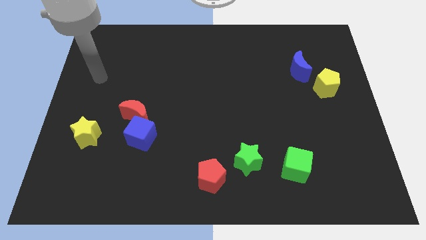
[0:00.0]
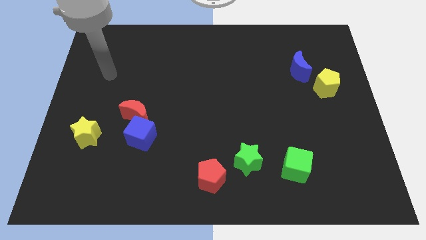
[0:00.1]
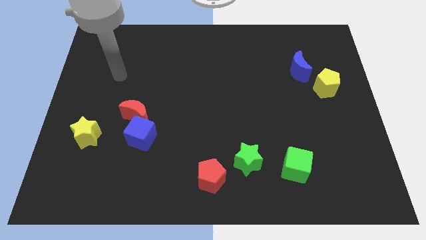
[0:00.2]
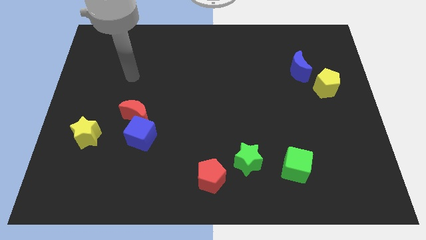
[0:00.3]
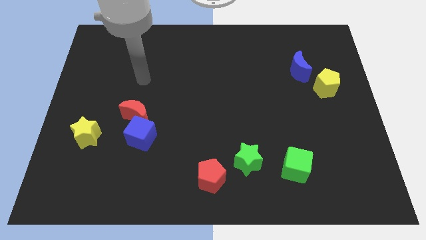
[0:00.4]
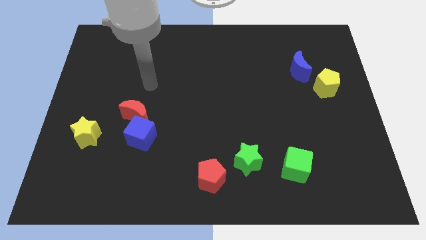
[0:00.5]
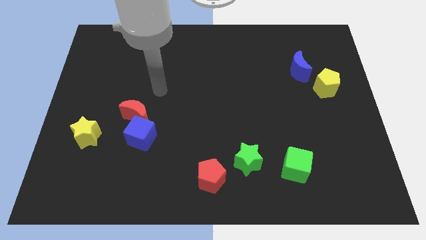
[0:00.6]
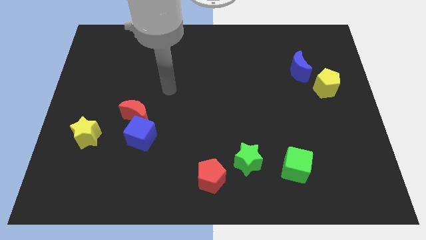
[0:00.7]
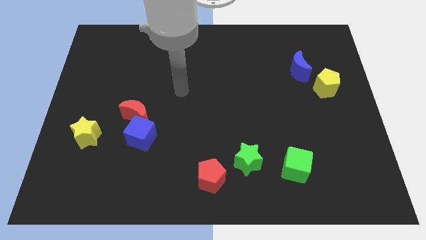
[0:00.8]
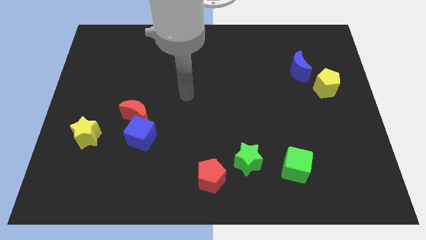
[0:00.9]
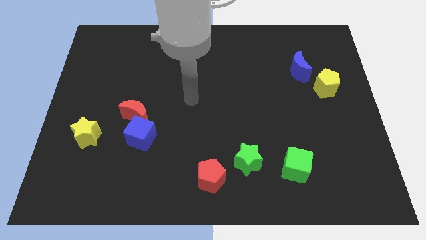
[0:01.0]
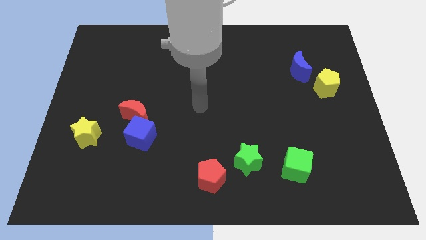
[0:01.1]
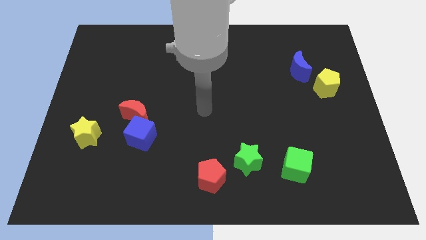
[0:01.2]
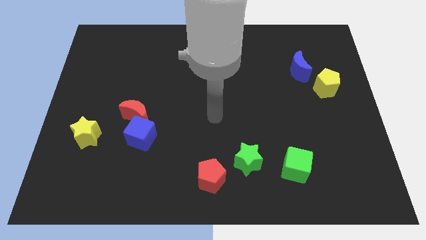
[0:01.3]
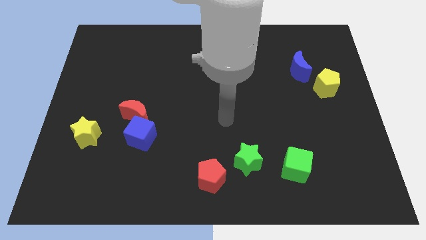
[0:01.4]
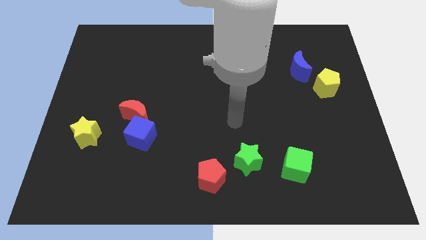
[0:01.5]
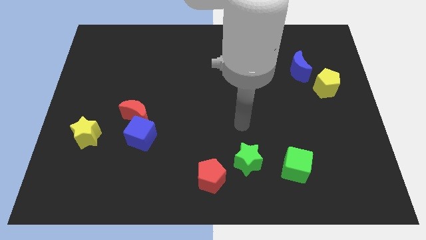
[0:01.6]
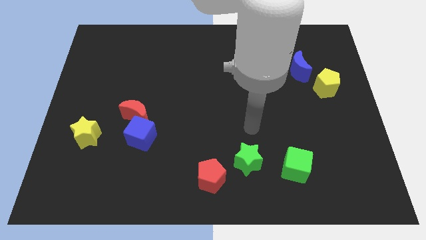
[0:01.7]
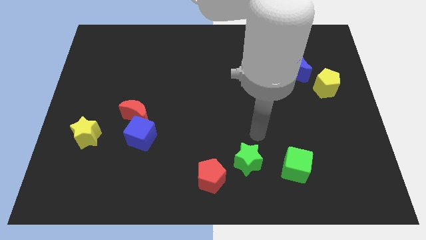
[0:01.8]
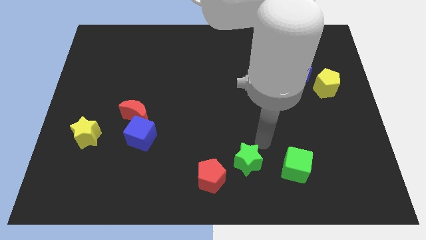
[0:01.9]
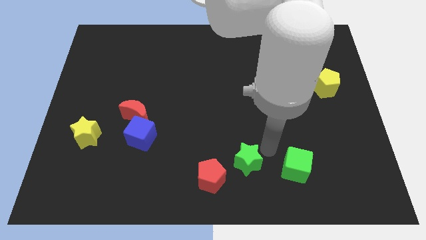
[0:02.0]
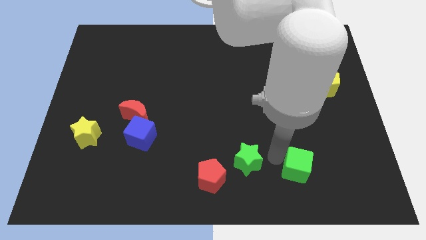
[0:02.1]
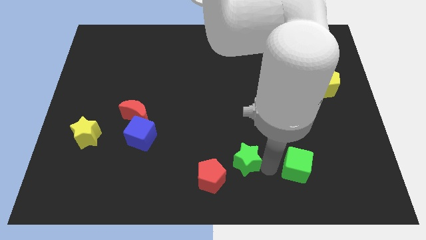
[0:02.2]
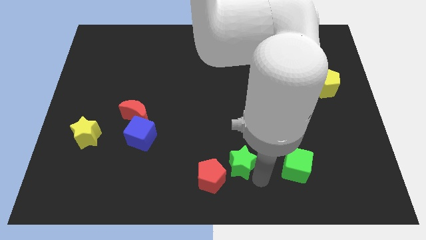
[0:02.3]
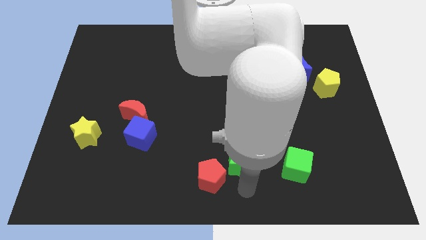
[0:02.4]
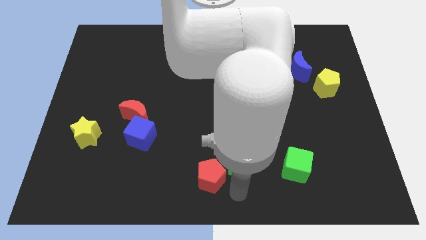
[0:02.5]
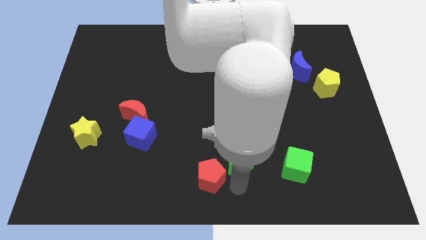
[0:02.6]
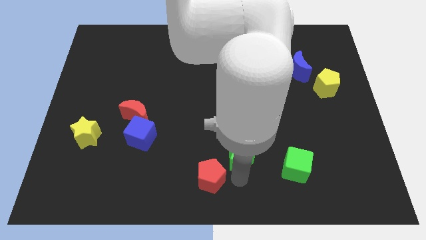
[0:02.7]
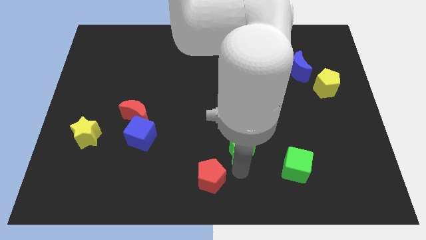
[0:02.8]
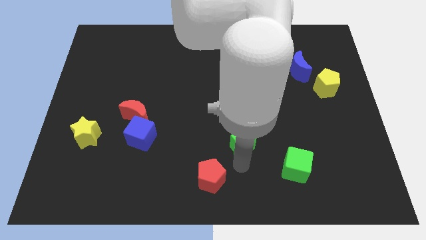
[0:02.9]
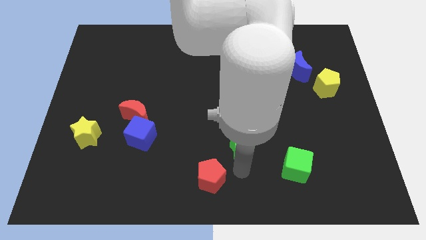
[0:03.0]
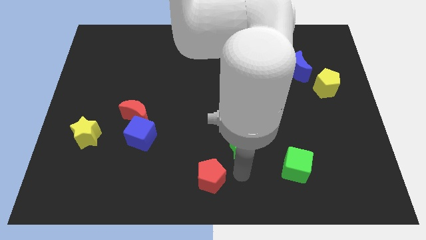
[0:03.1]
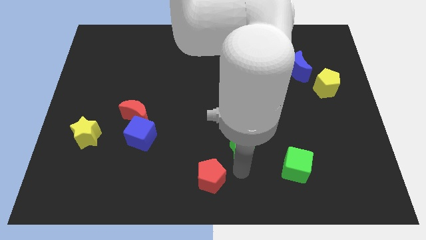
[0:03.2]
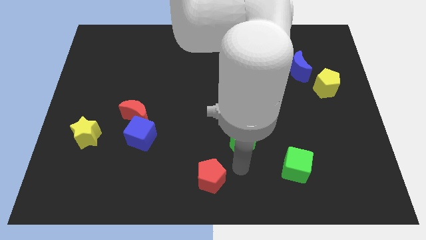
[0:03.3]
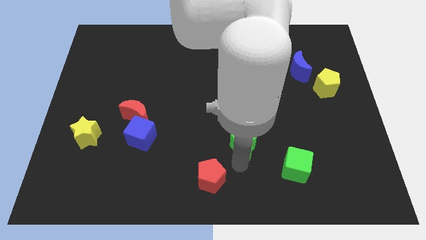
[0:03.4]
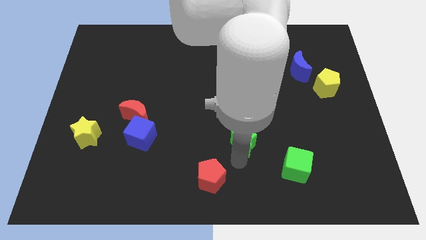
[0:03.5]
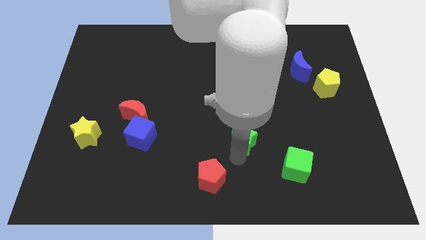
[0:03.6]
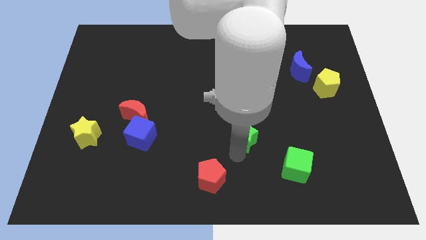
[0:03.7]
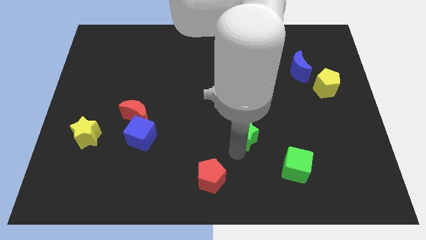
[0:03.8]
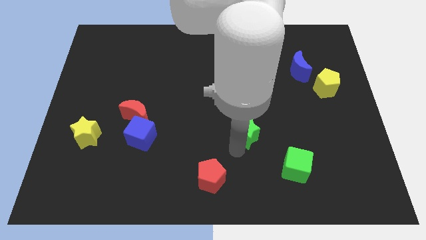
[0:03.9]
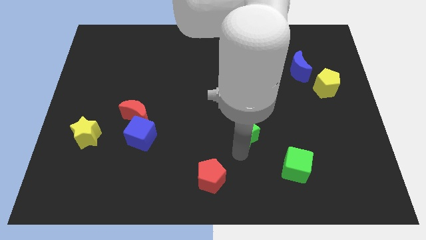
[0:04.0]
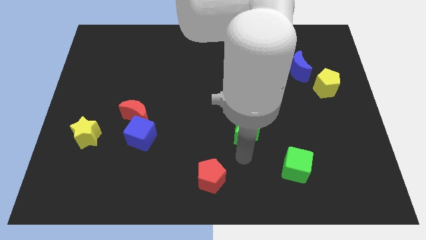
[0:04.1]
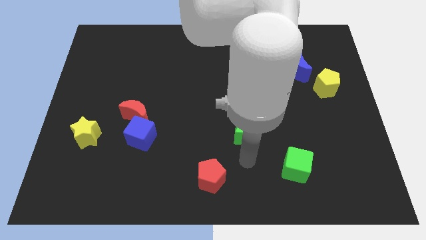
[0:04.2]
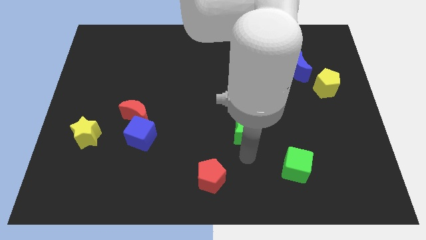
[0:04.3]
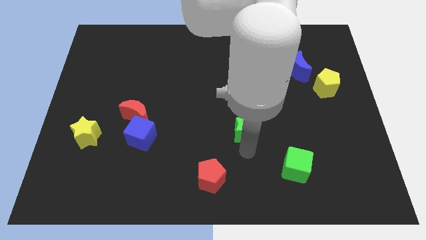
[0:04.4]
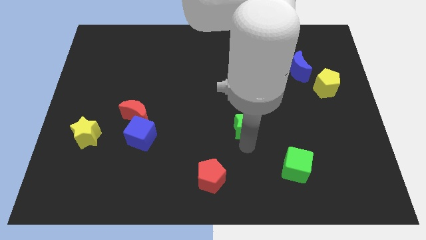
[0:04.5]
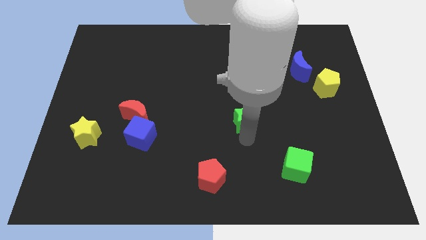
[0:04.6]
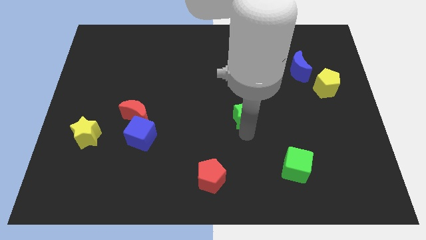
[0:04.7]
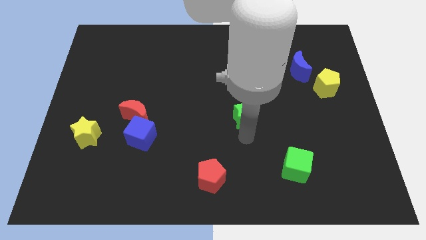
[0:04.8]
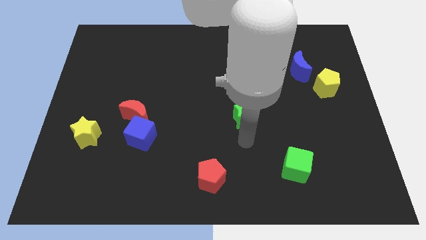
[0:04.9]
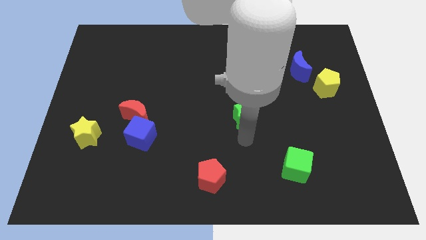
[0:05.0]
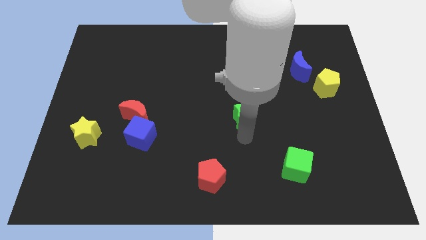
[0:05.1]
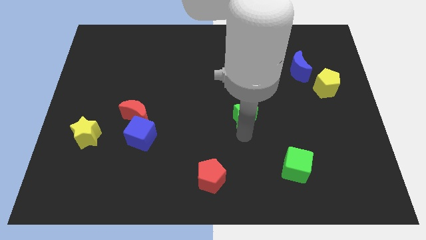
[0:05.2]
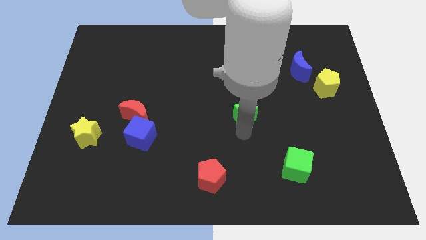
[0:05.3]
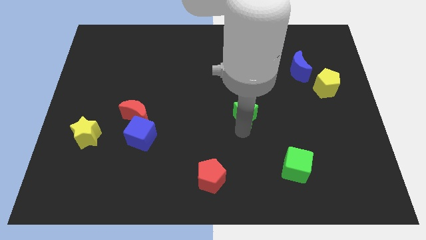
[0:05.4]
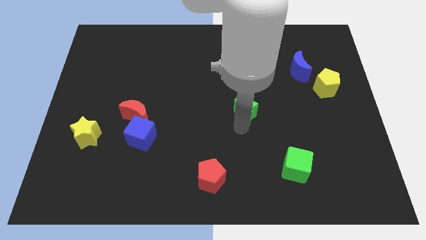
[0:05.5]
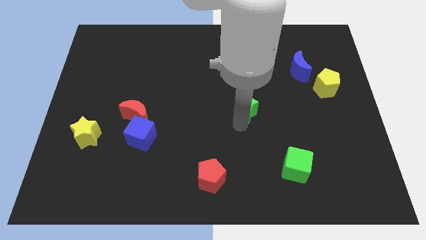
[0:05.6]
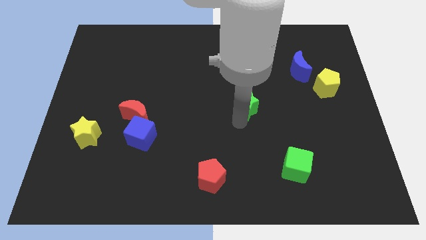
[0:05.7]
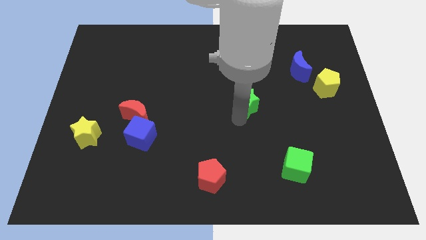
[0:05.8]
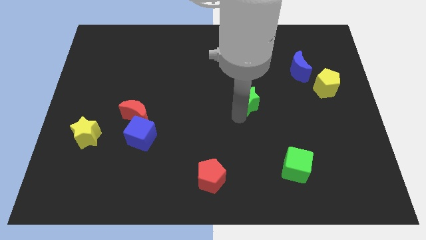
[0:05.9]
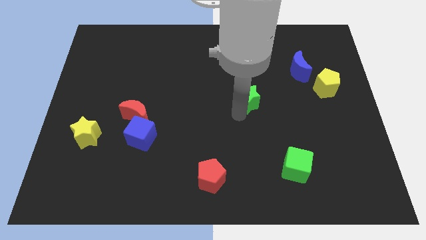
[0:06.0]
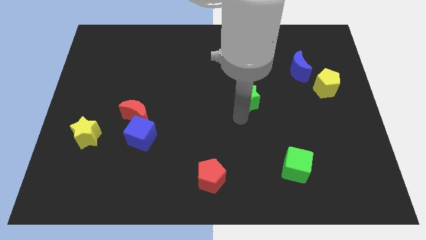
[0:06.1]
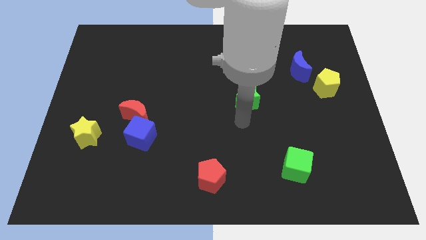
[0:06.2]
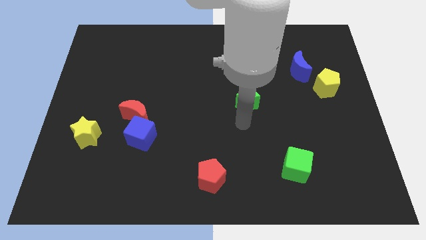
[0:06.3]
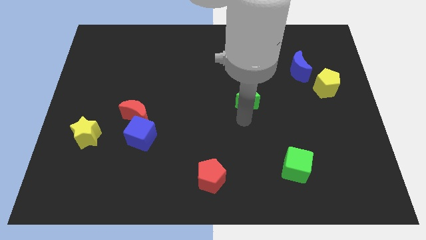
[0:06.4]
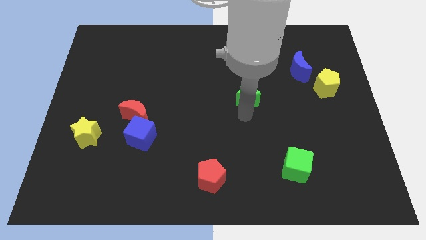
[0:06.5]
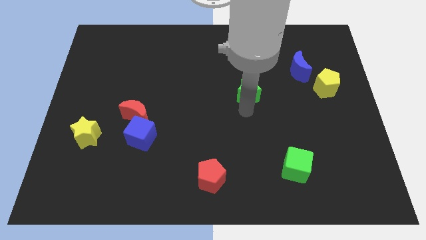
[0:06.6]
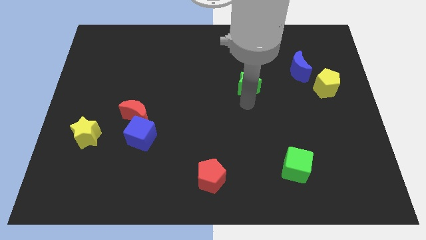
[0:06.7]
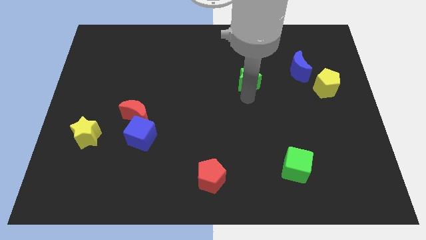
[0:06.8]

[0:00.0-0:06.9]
move the green star just left of the blue moon
